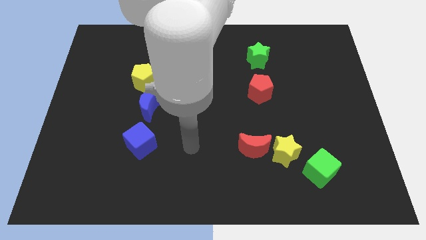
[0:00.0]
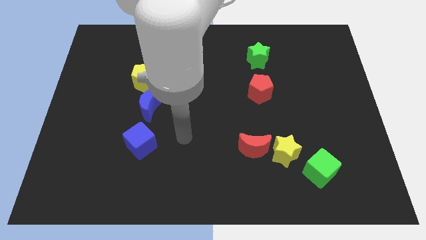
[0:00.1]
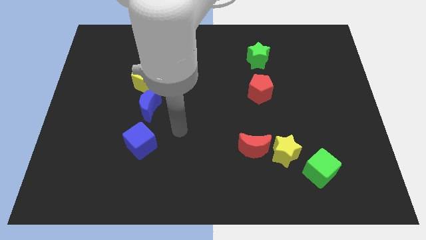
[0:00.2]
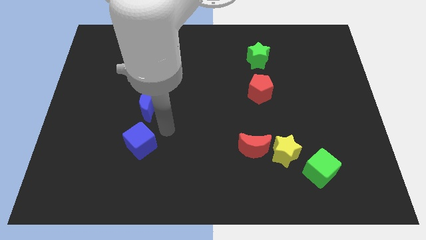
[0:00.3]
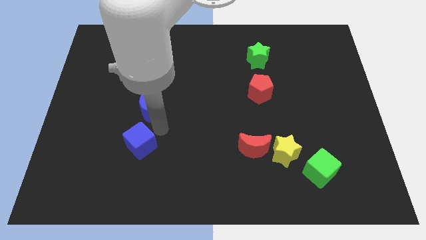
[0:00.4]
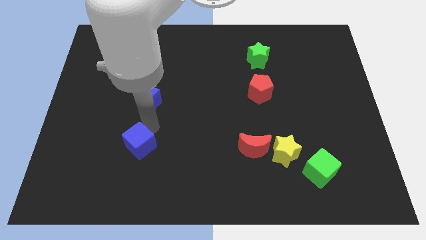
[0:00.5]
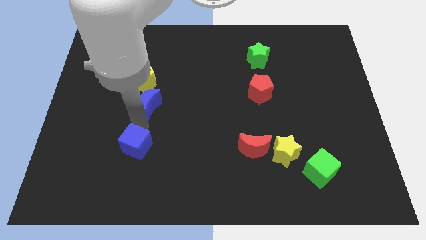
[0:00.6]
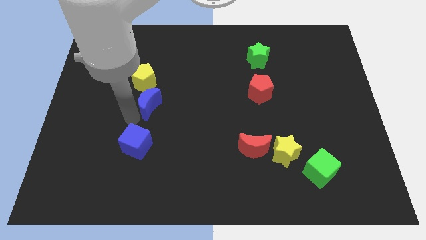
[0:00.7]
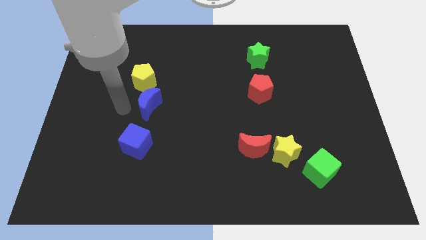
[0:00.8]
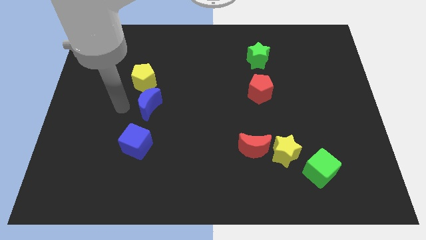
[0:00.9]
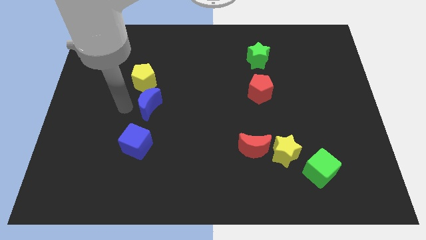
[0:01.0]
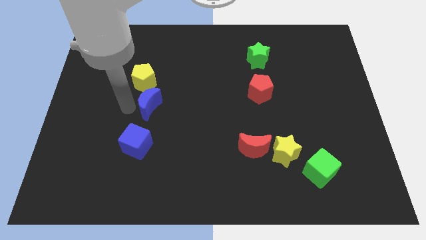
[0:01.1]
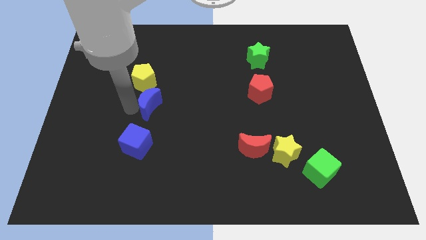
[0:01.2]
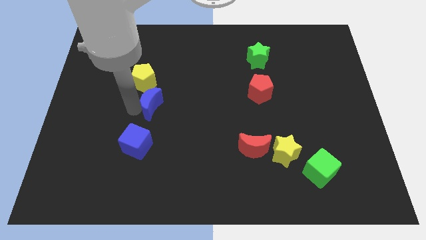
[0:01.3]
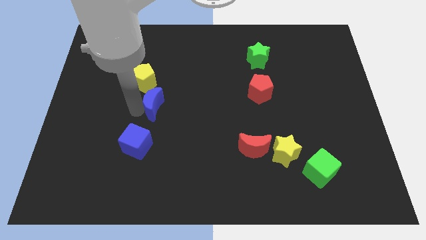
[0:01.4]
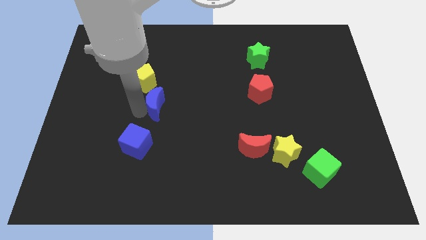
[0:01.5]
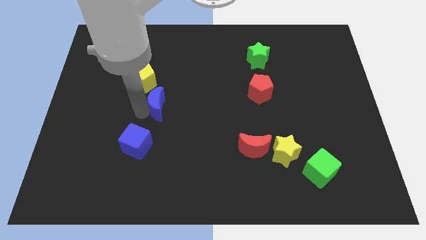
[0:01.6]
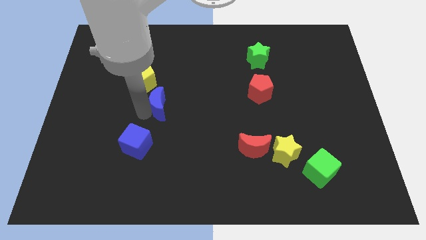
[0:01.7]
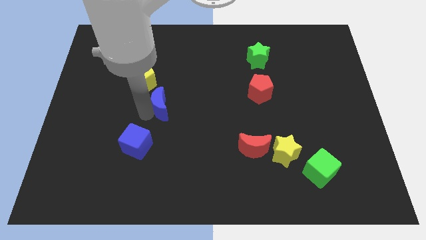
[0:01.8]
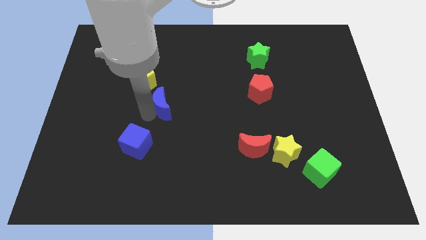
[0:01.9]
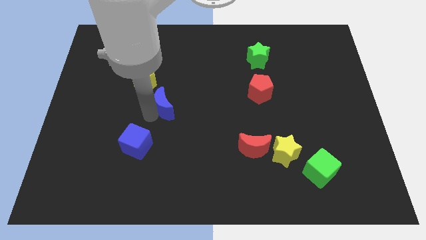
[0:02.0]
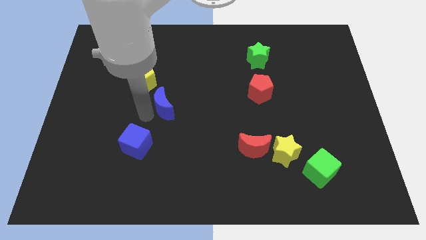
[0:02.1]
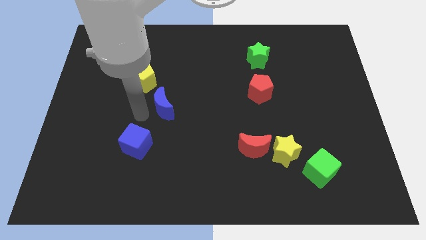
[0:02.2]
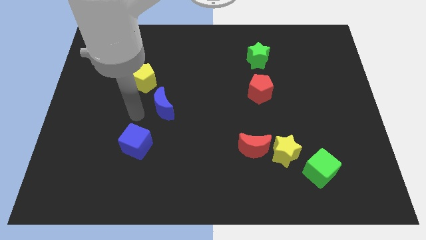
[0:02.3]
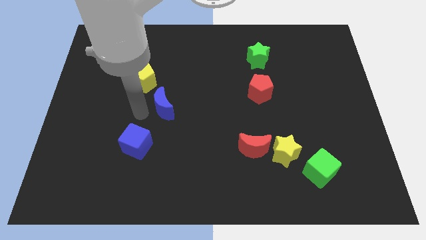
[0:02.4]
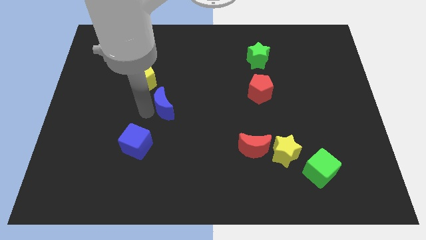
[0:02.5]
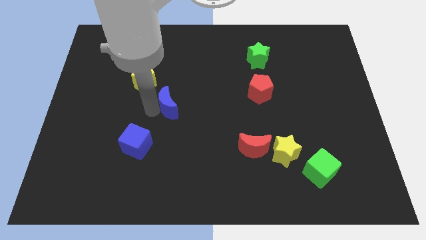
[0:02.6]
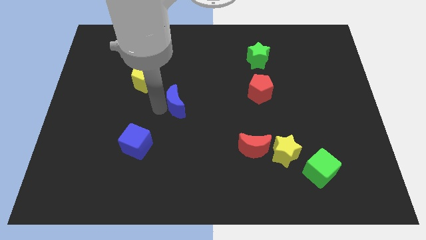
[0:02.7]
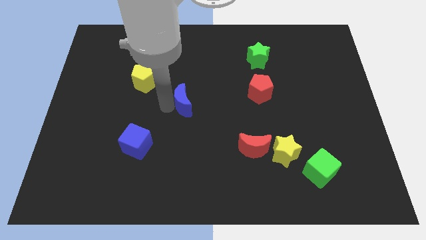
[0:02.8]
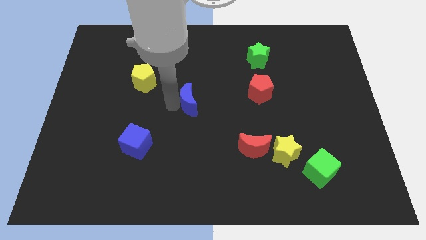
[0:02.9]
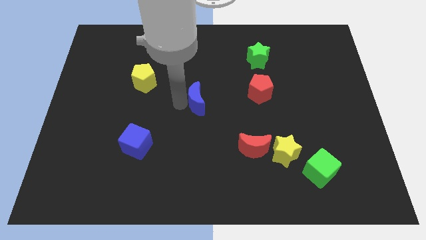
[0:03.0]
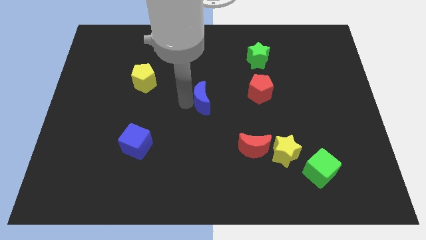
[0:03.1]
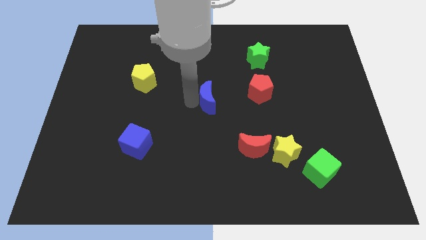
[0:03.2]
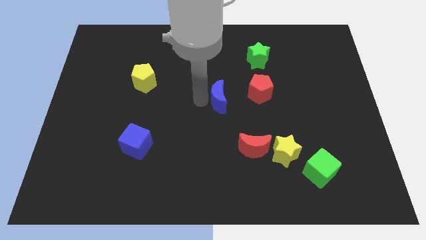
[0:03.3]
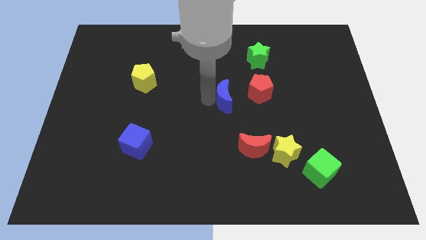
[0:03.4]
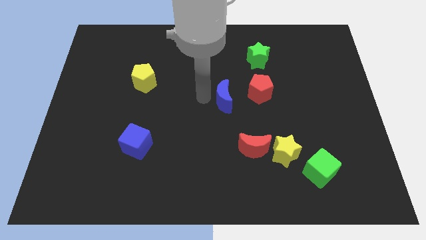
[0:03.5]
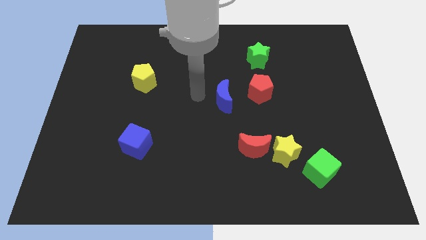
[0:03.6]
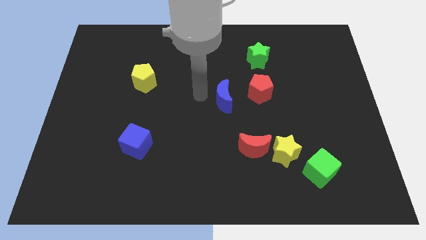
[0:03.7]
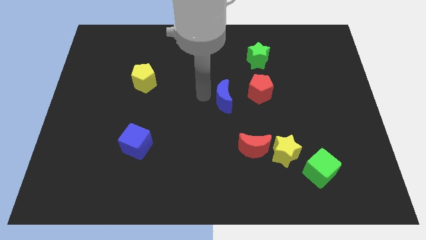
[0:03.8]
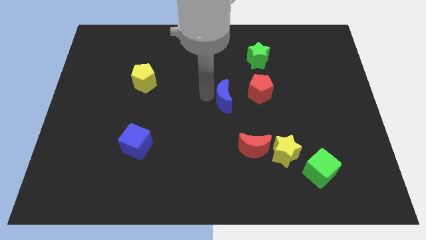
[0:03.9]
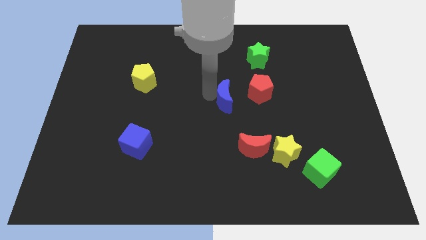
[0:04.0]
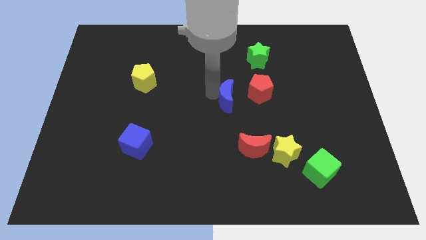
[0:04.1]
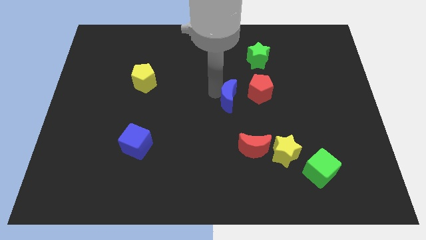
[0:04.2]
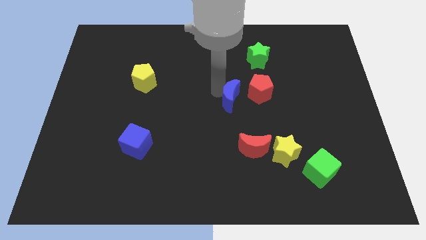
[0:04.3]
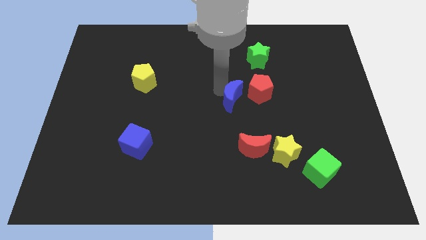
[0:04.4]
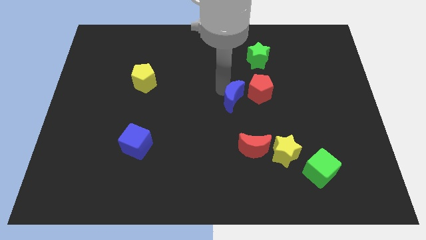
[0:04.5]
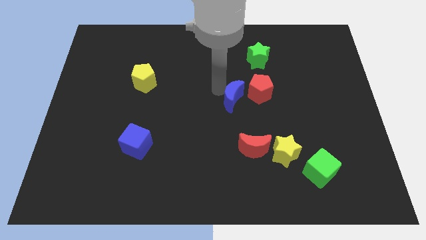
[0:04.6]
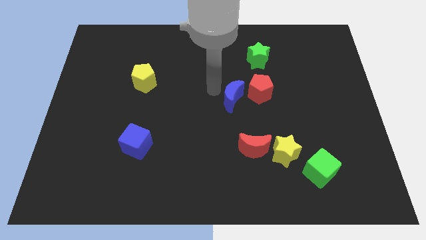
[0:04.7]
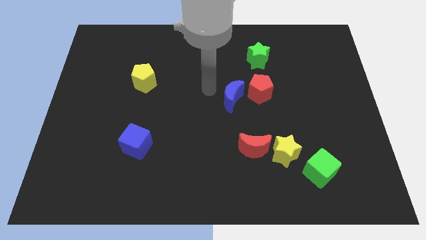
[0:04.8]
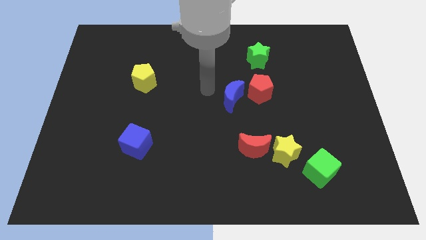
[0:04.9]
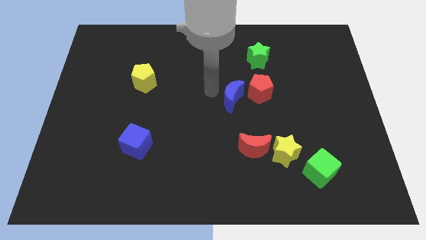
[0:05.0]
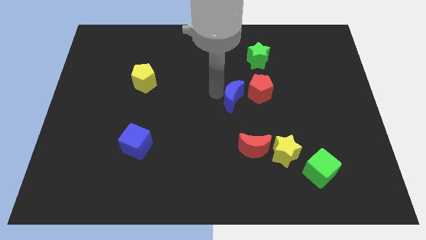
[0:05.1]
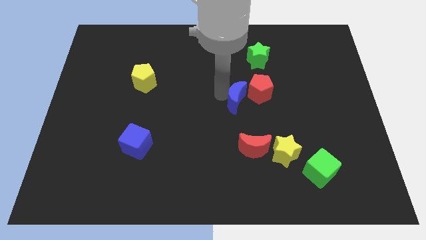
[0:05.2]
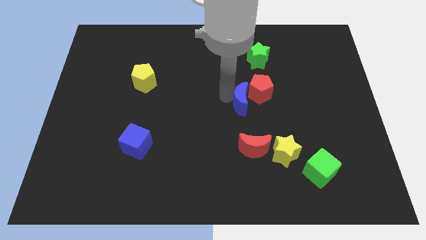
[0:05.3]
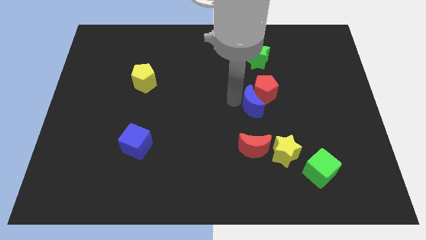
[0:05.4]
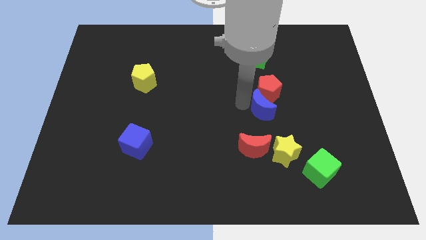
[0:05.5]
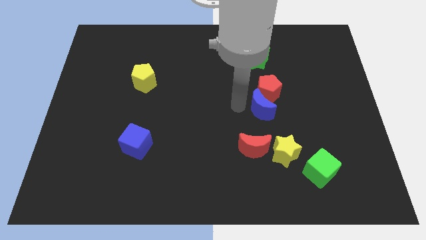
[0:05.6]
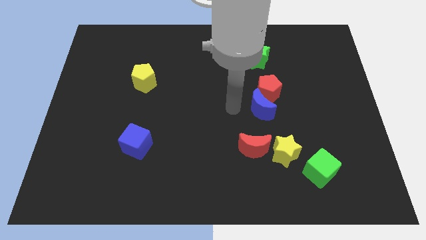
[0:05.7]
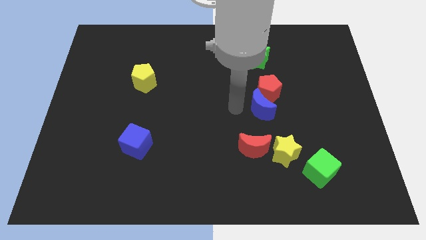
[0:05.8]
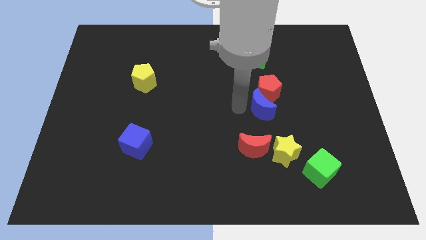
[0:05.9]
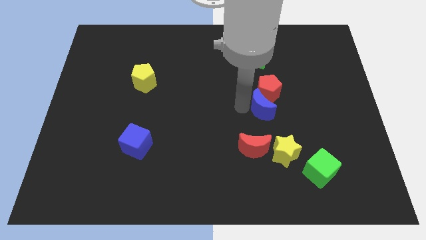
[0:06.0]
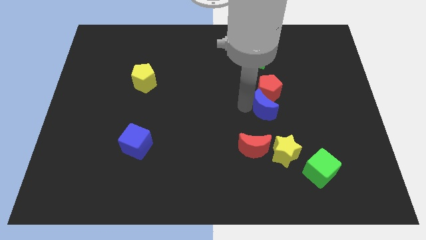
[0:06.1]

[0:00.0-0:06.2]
put the blue moon to the bottom right of the red pentagon

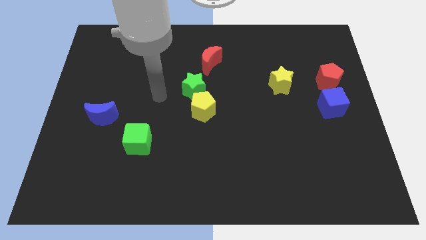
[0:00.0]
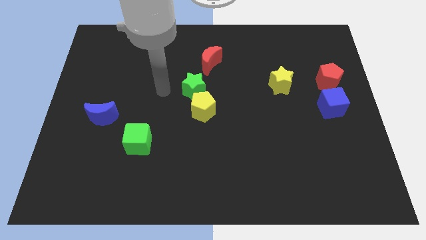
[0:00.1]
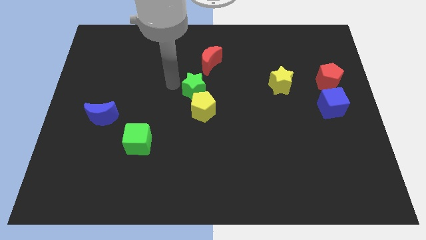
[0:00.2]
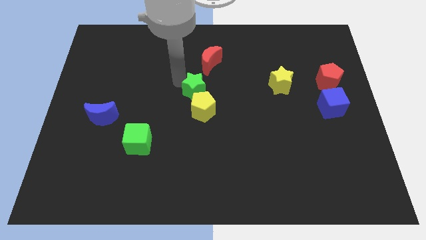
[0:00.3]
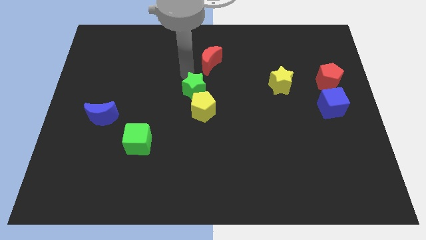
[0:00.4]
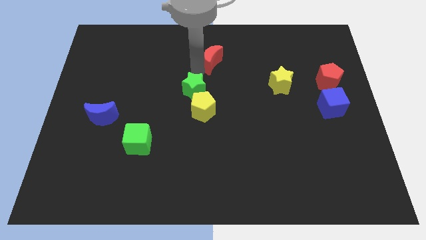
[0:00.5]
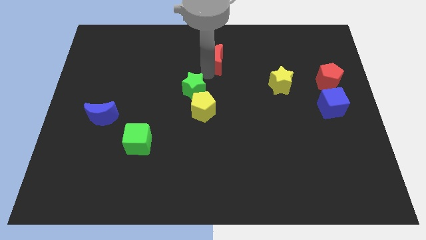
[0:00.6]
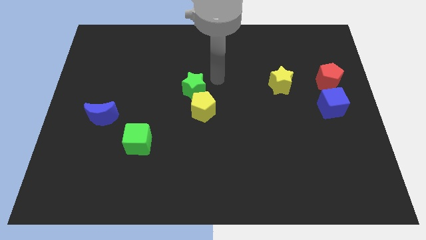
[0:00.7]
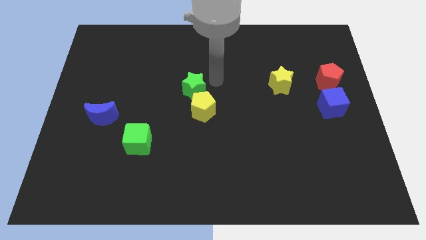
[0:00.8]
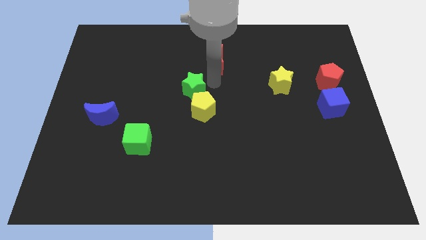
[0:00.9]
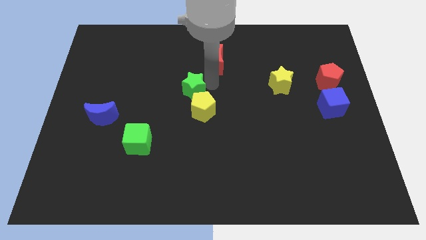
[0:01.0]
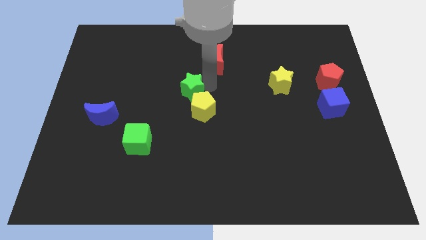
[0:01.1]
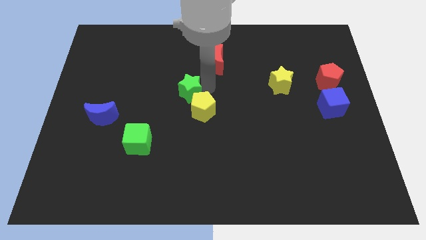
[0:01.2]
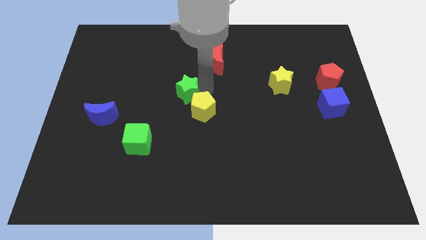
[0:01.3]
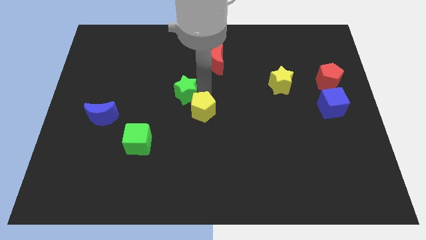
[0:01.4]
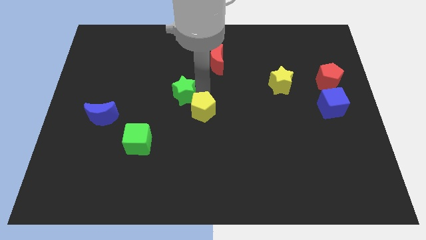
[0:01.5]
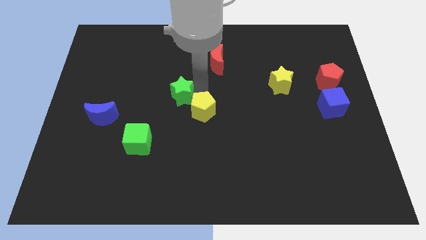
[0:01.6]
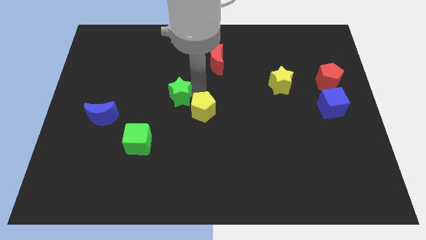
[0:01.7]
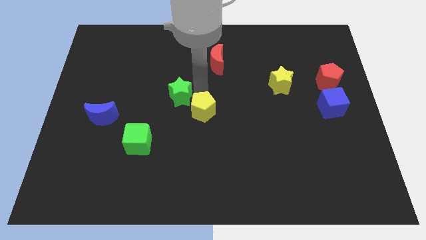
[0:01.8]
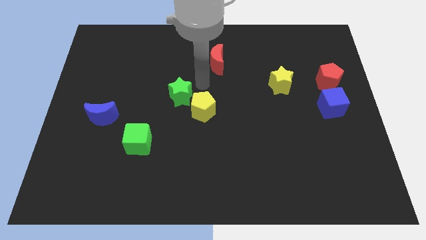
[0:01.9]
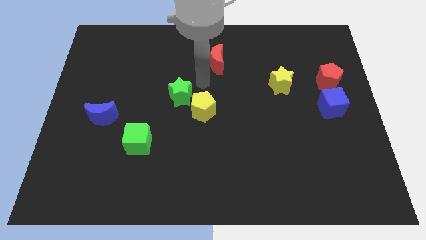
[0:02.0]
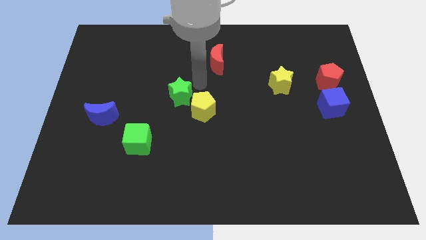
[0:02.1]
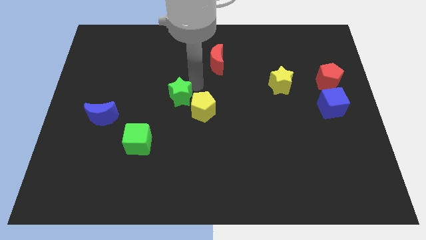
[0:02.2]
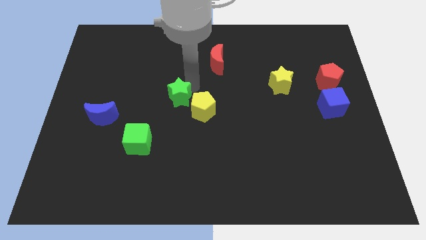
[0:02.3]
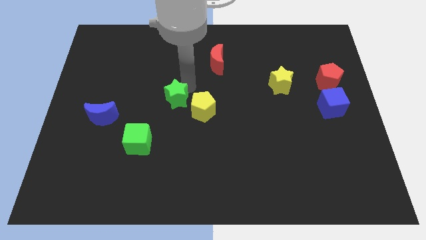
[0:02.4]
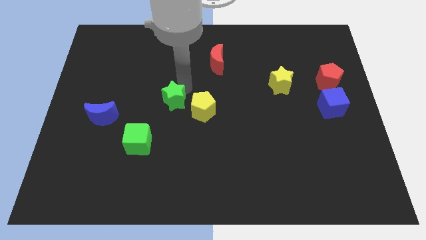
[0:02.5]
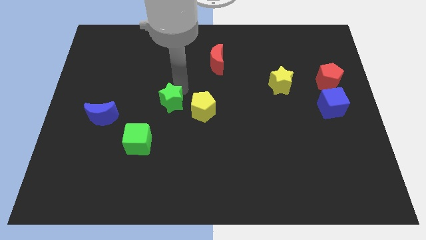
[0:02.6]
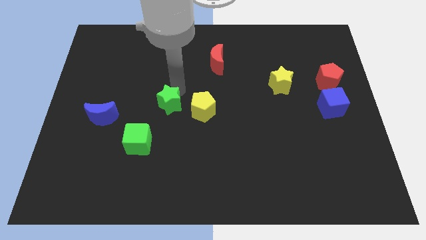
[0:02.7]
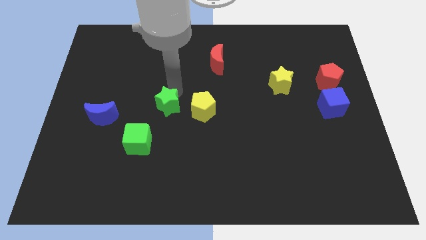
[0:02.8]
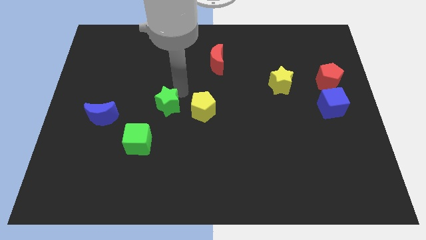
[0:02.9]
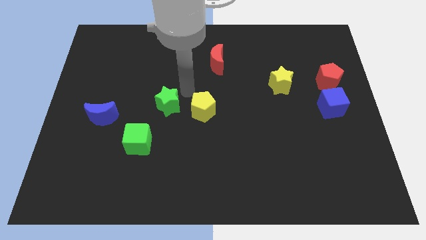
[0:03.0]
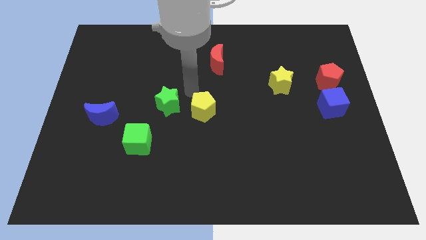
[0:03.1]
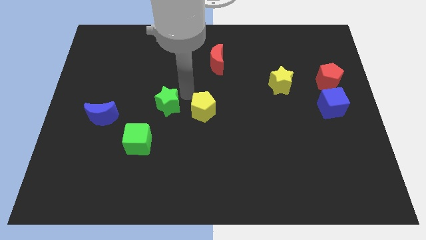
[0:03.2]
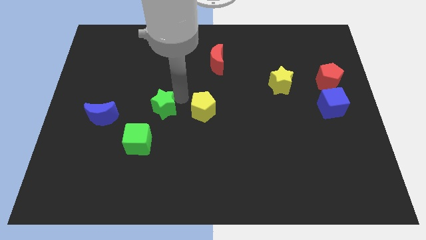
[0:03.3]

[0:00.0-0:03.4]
put the green star right of the blue moon
